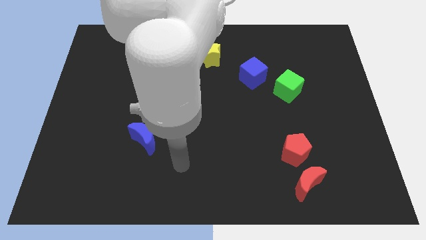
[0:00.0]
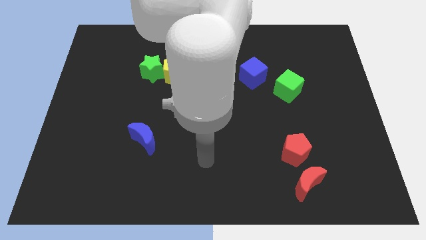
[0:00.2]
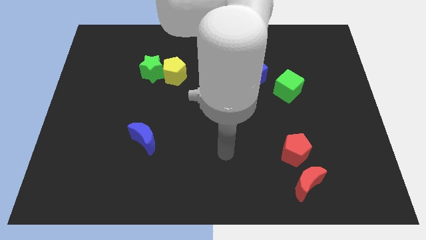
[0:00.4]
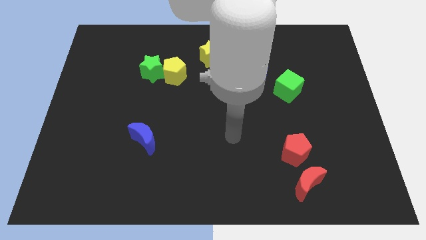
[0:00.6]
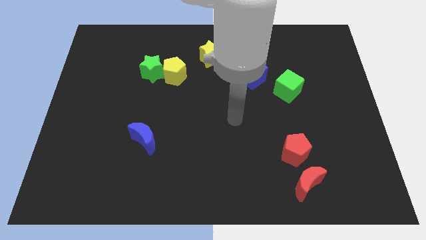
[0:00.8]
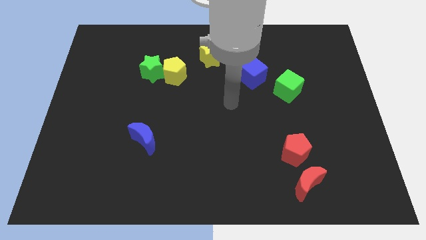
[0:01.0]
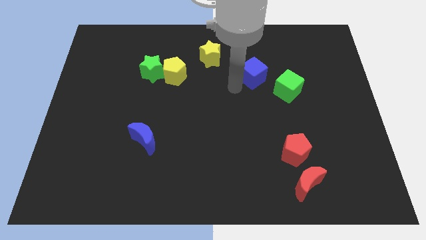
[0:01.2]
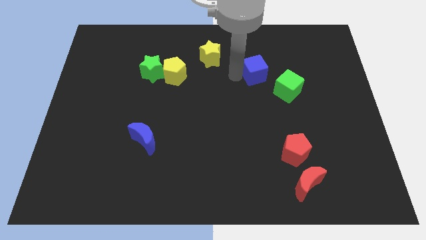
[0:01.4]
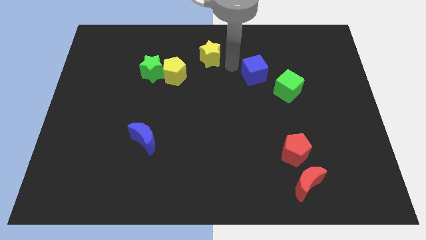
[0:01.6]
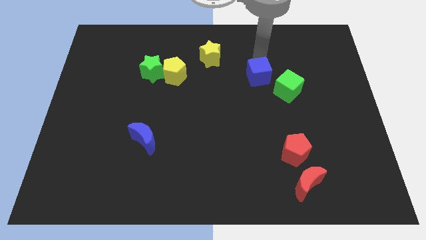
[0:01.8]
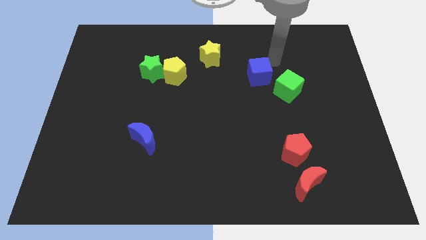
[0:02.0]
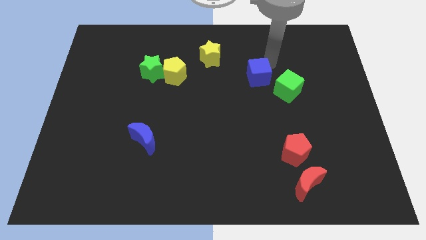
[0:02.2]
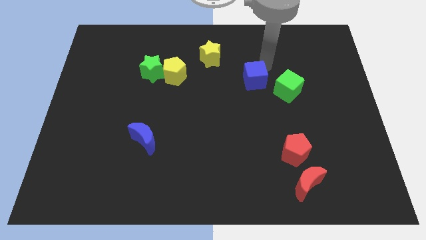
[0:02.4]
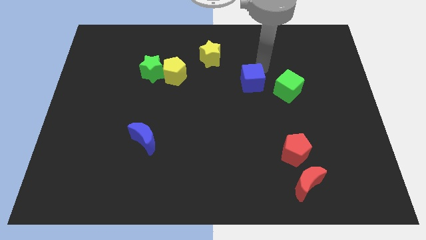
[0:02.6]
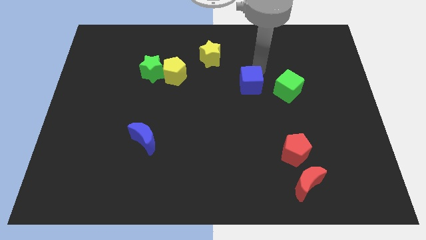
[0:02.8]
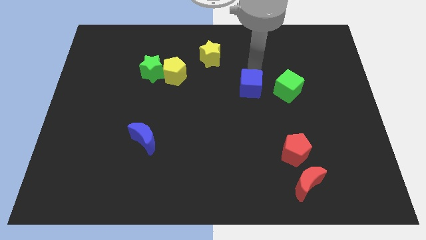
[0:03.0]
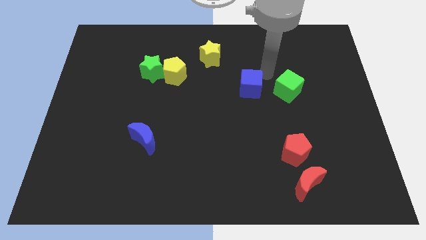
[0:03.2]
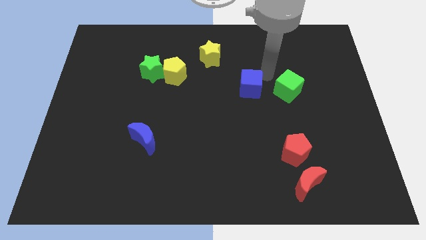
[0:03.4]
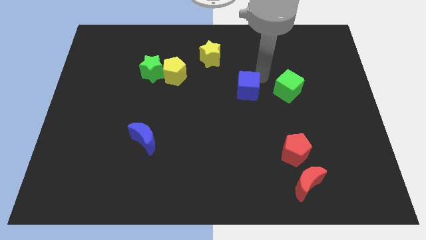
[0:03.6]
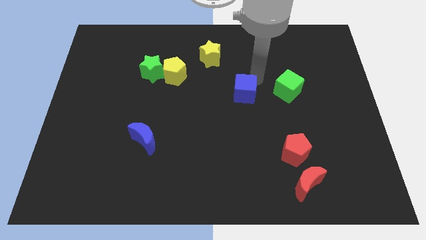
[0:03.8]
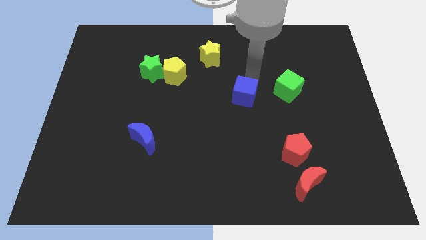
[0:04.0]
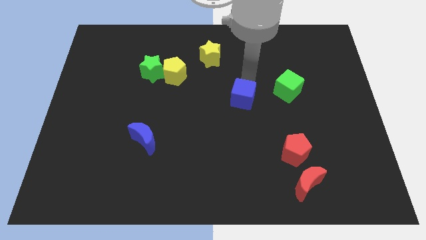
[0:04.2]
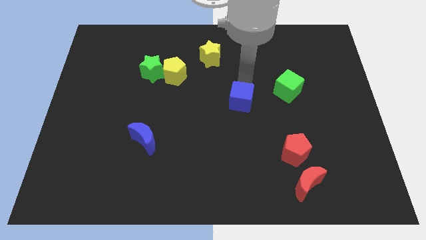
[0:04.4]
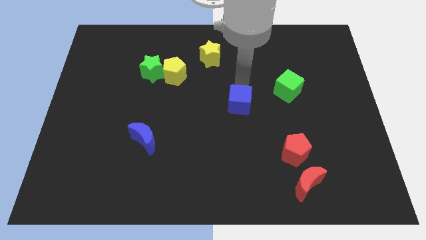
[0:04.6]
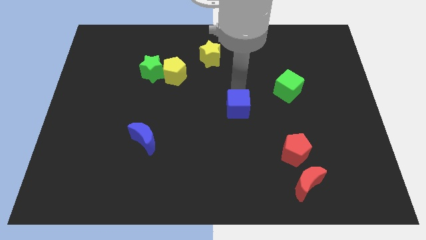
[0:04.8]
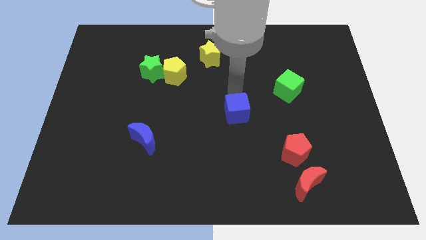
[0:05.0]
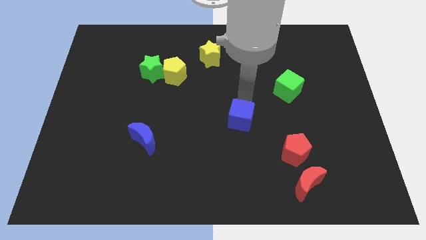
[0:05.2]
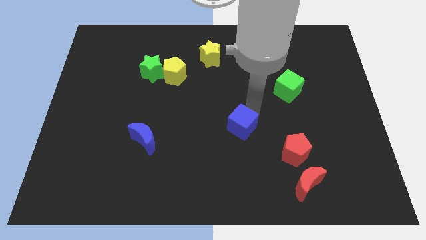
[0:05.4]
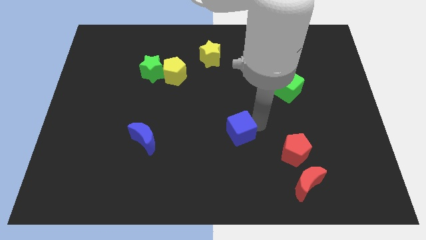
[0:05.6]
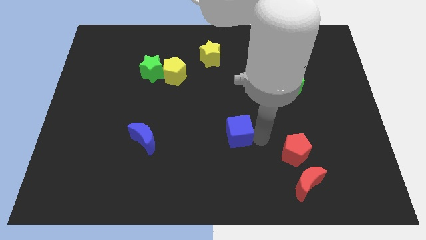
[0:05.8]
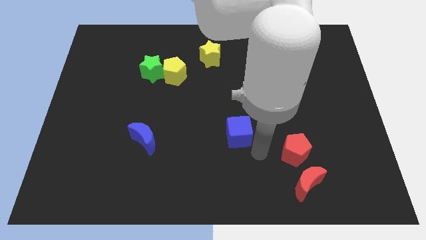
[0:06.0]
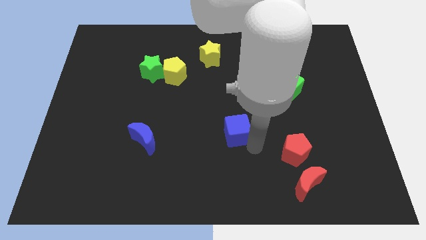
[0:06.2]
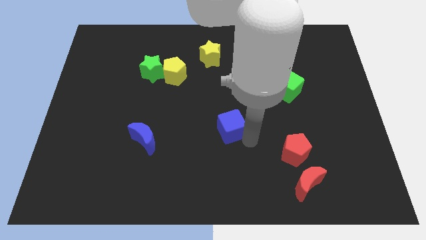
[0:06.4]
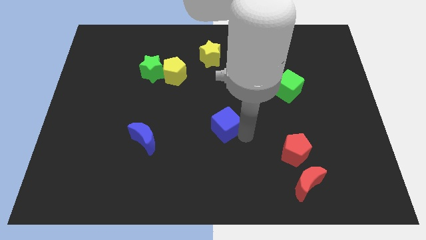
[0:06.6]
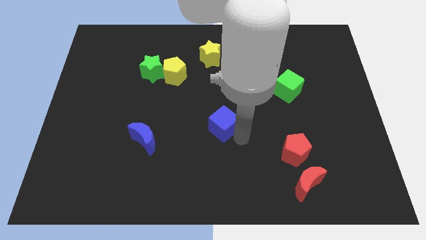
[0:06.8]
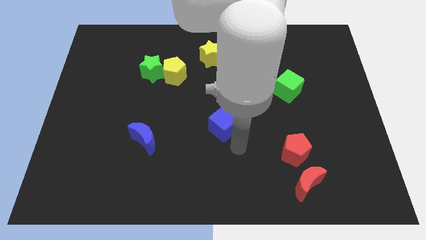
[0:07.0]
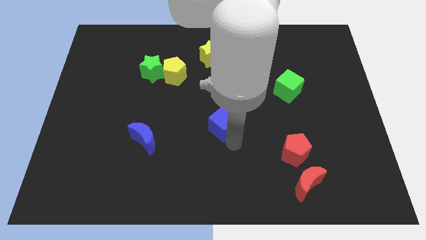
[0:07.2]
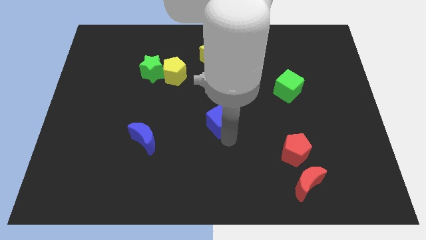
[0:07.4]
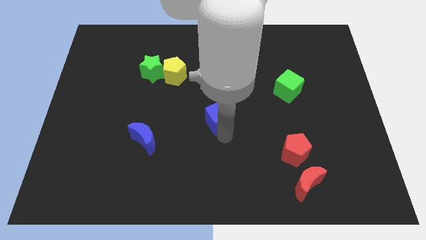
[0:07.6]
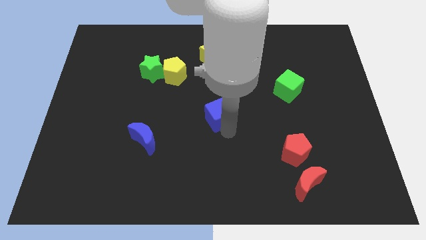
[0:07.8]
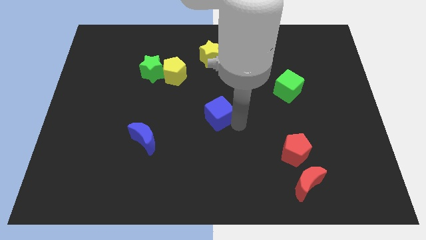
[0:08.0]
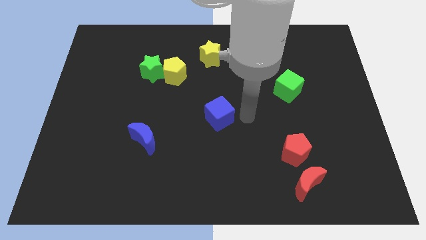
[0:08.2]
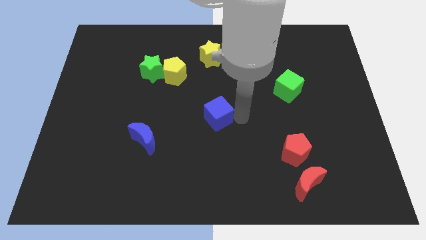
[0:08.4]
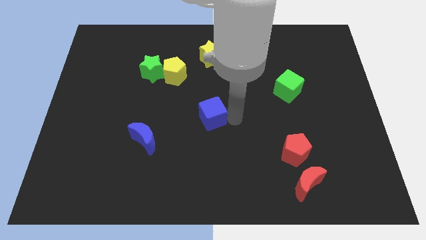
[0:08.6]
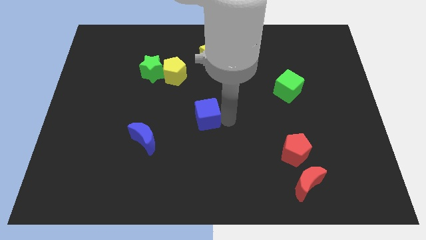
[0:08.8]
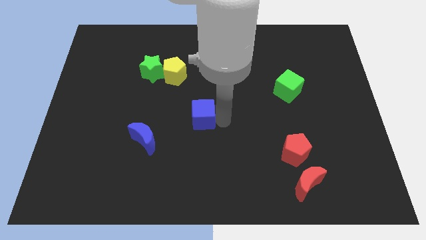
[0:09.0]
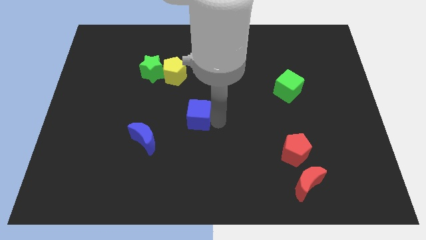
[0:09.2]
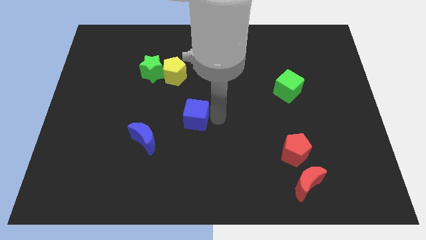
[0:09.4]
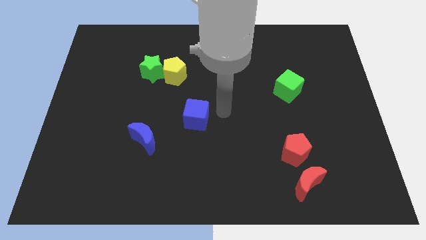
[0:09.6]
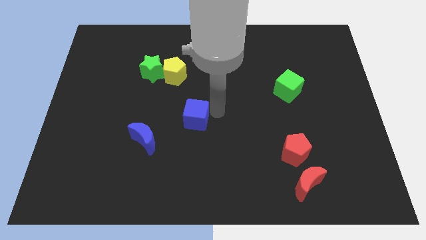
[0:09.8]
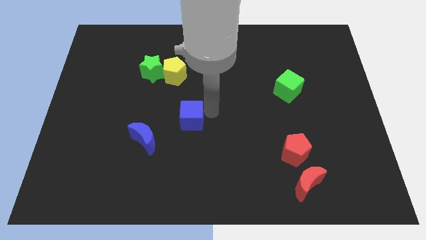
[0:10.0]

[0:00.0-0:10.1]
slide the blue cube down and then left

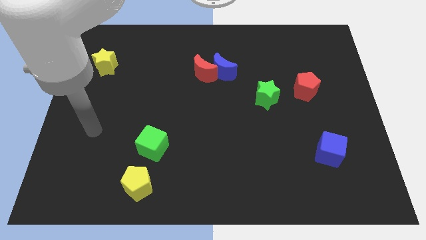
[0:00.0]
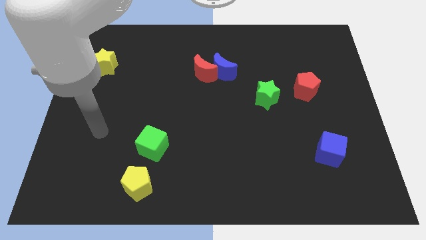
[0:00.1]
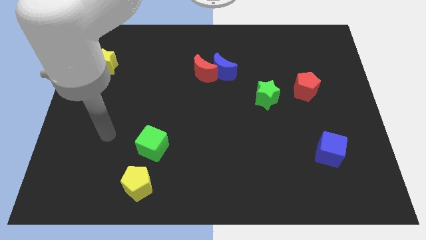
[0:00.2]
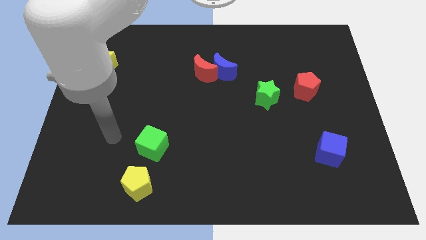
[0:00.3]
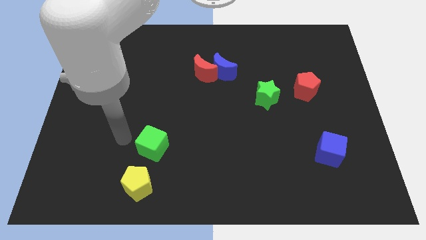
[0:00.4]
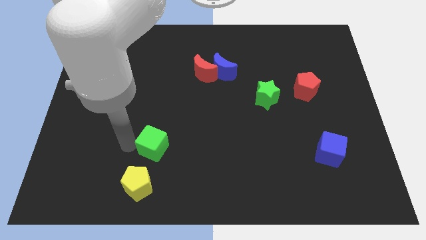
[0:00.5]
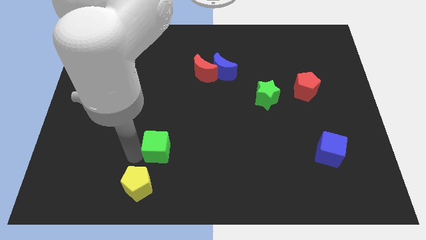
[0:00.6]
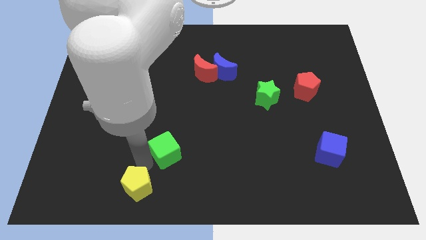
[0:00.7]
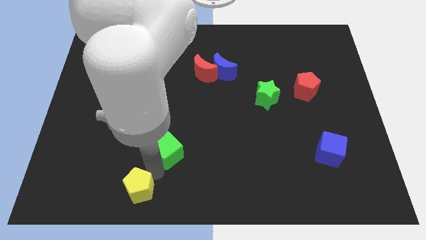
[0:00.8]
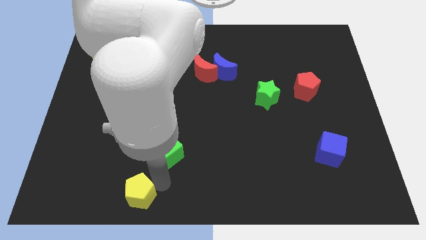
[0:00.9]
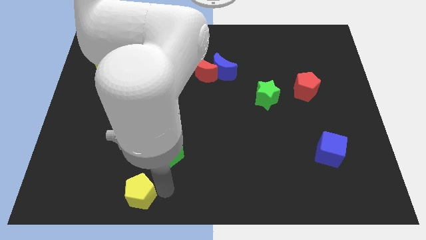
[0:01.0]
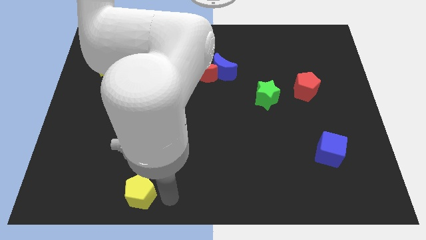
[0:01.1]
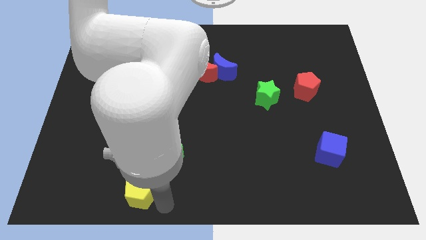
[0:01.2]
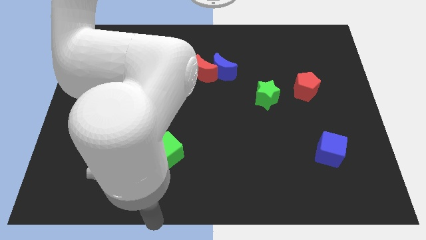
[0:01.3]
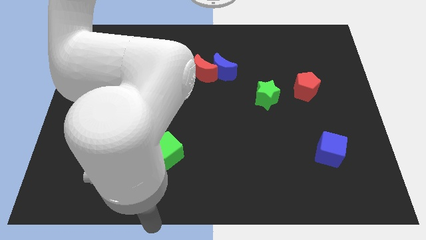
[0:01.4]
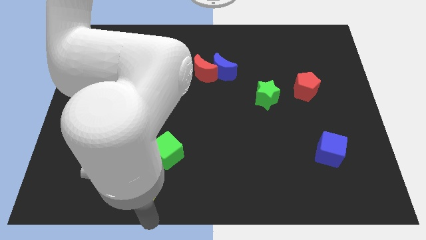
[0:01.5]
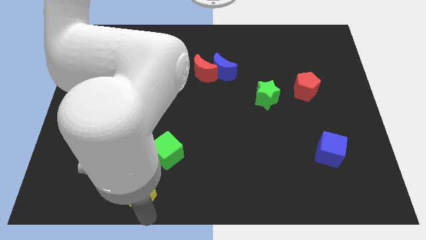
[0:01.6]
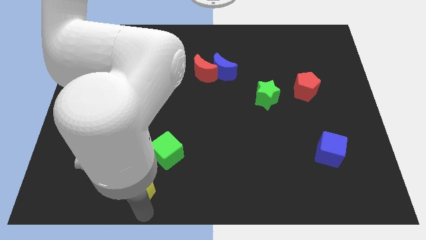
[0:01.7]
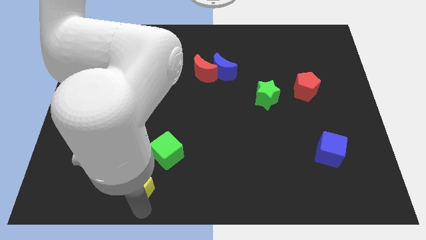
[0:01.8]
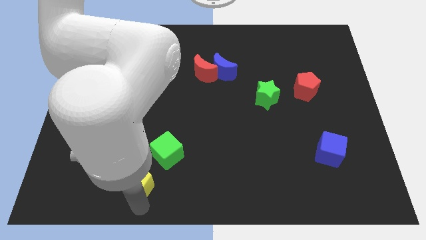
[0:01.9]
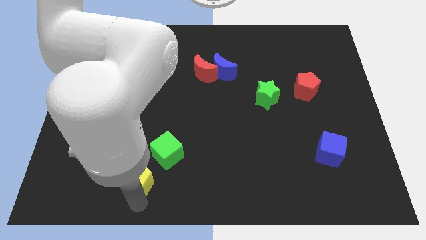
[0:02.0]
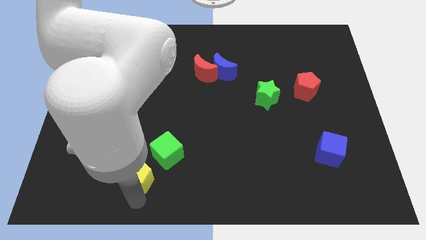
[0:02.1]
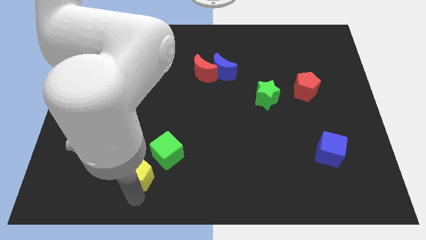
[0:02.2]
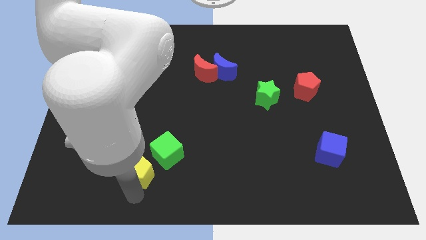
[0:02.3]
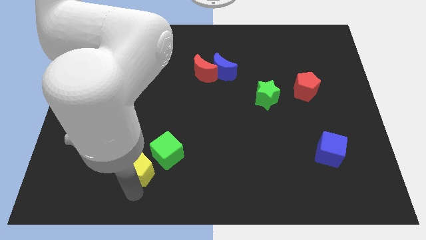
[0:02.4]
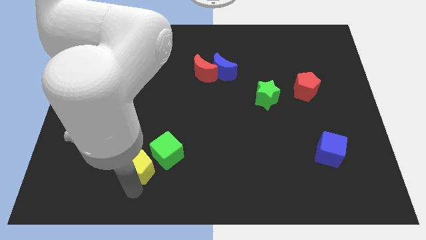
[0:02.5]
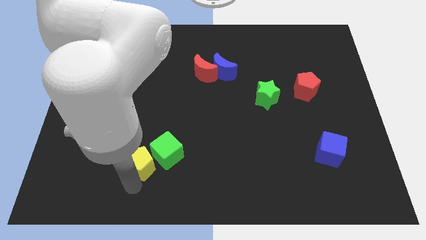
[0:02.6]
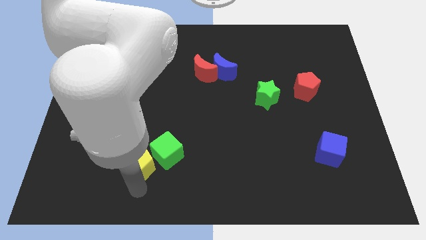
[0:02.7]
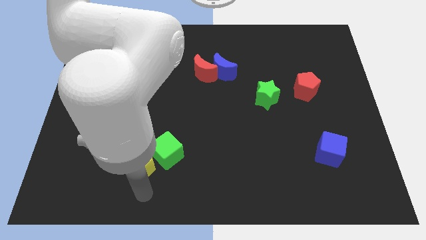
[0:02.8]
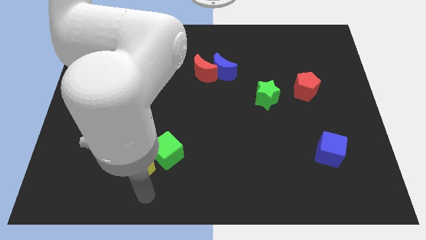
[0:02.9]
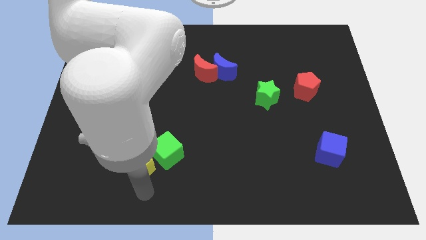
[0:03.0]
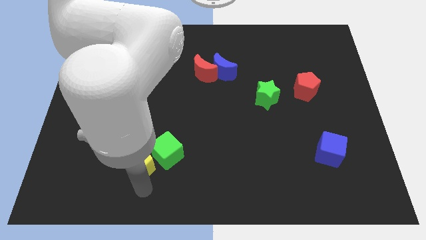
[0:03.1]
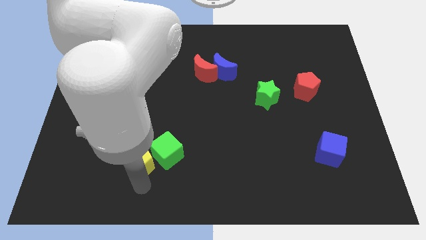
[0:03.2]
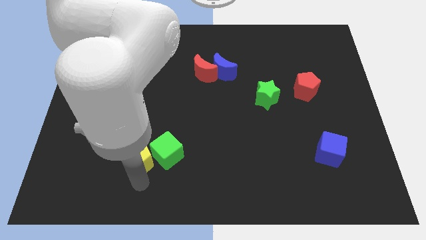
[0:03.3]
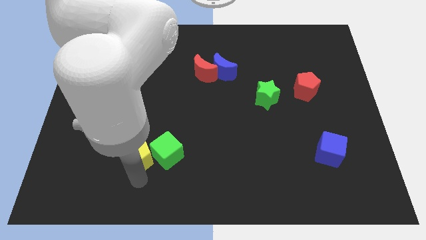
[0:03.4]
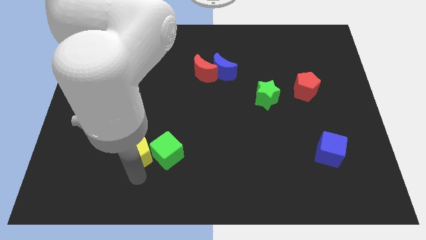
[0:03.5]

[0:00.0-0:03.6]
slightly push the yellow pentagon up
